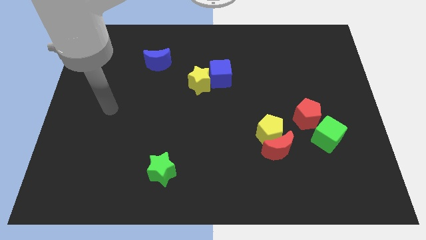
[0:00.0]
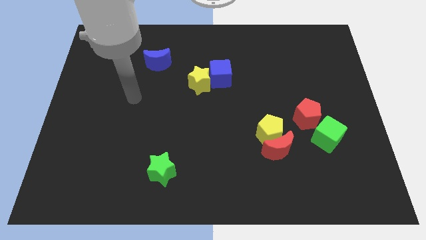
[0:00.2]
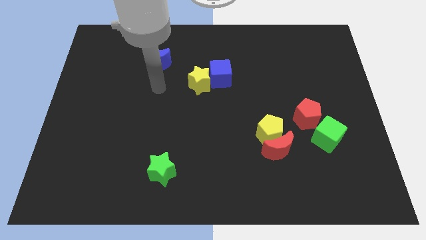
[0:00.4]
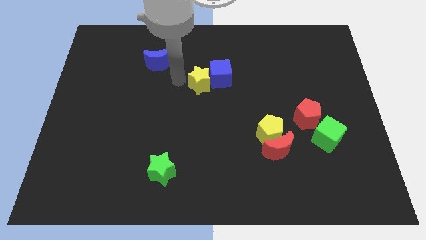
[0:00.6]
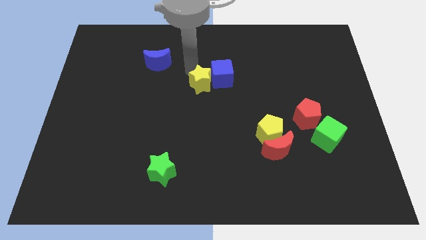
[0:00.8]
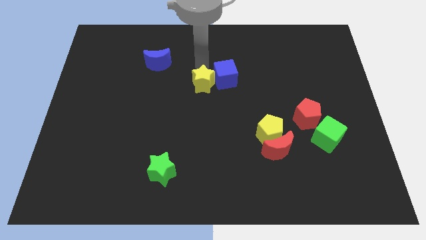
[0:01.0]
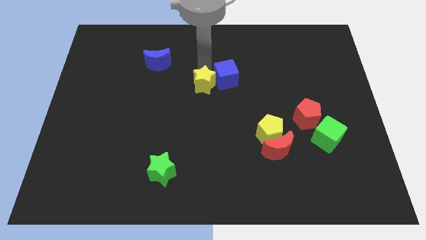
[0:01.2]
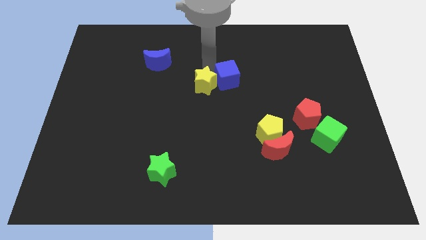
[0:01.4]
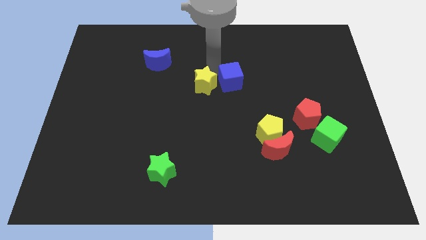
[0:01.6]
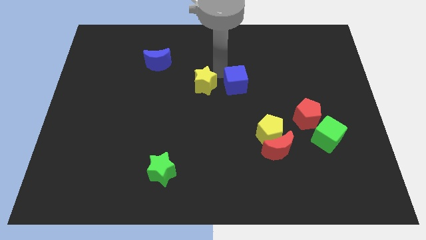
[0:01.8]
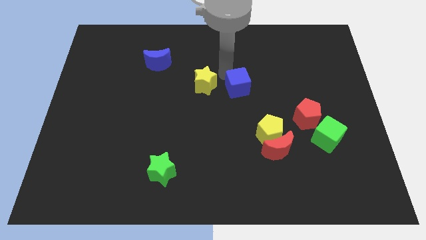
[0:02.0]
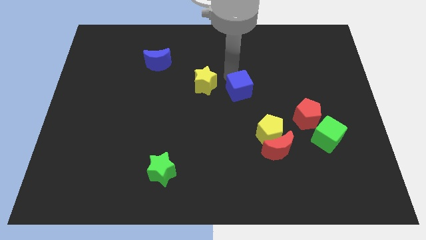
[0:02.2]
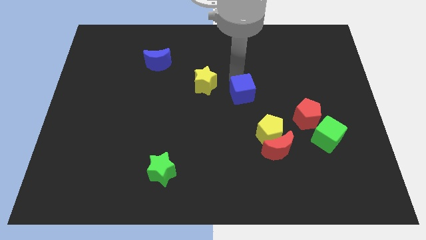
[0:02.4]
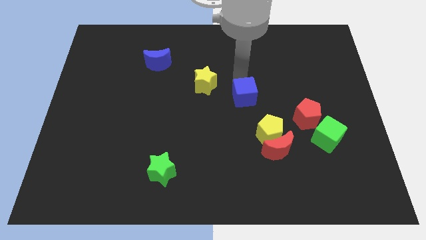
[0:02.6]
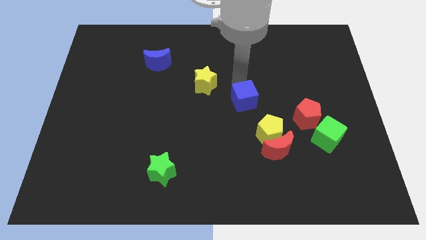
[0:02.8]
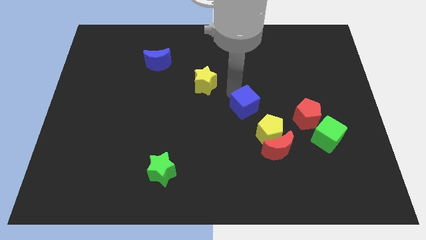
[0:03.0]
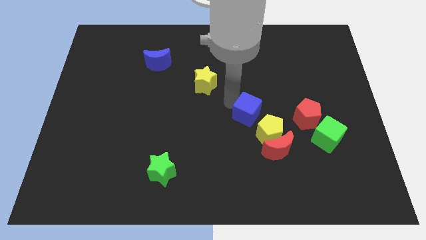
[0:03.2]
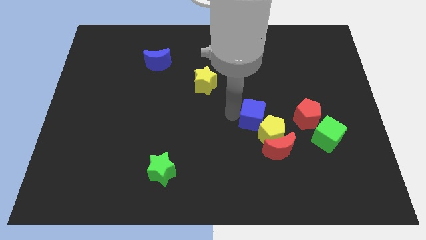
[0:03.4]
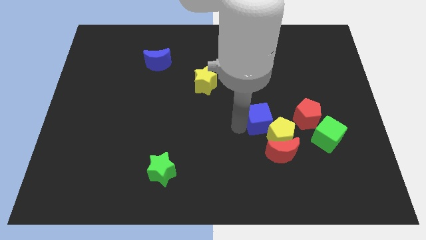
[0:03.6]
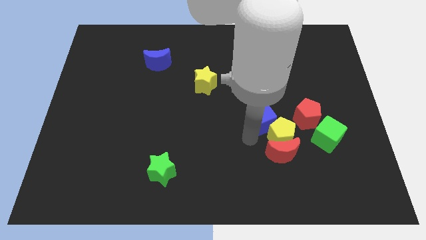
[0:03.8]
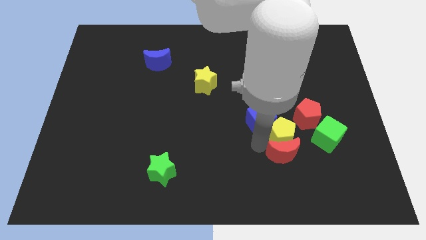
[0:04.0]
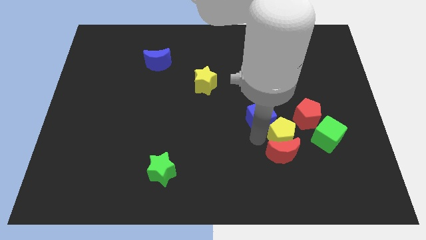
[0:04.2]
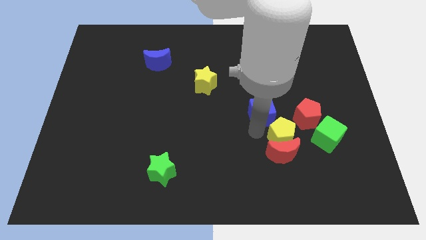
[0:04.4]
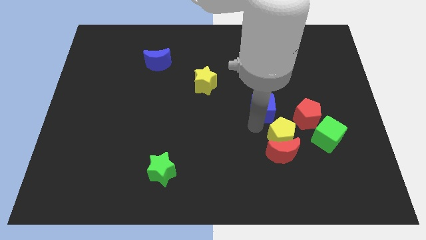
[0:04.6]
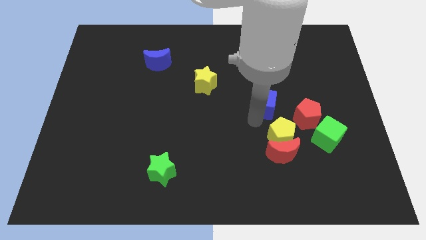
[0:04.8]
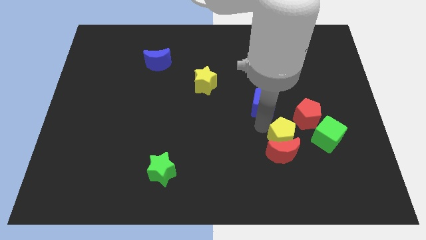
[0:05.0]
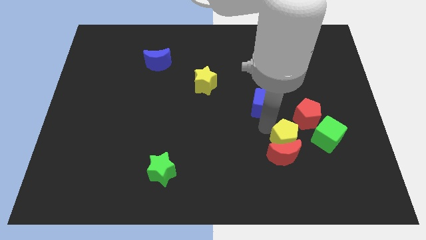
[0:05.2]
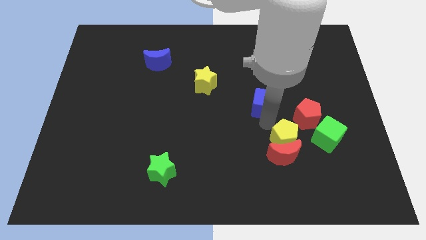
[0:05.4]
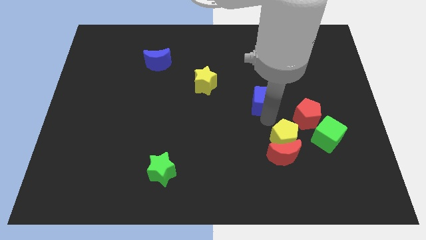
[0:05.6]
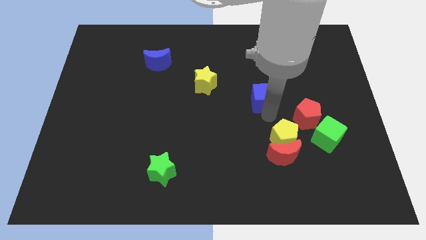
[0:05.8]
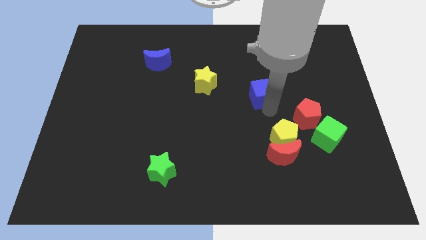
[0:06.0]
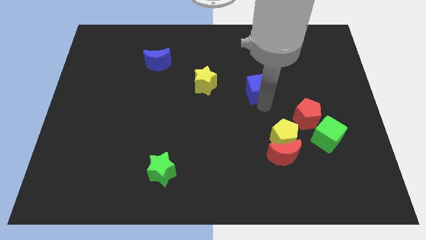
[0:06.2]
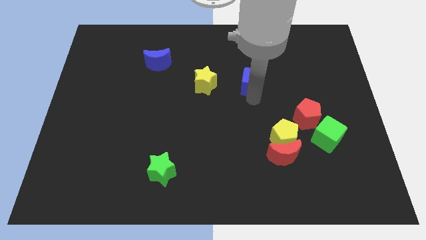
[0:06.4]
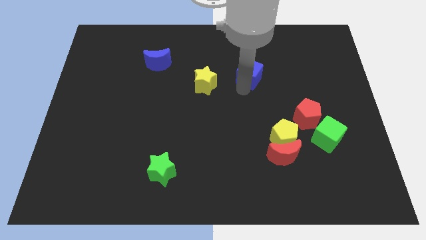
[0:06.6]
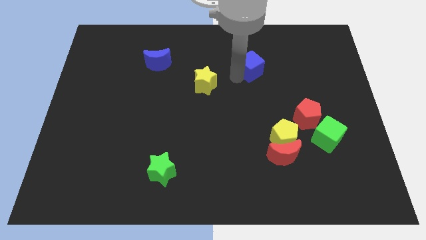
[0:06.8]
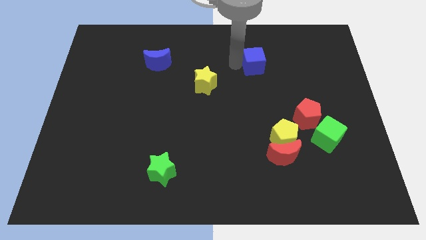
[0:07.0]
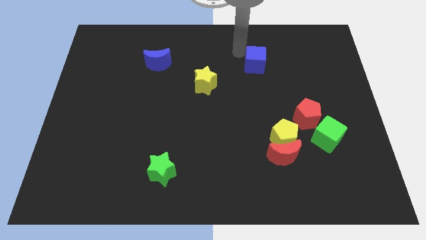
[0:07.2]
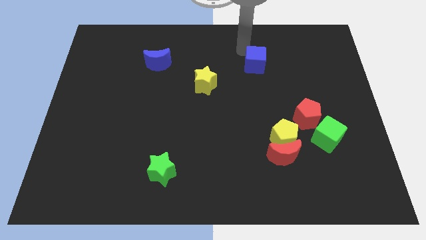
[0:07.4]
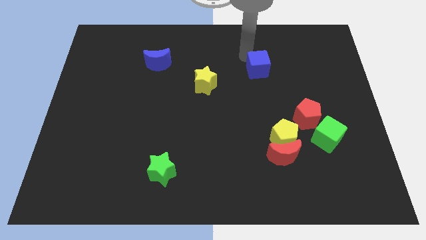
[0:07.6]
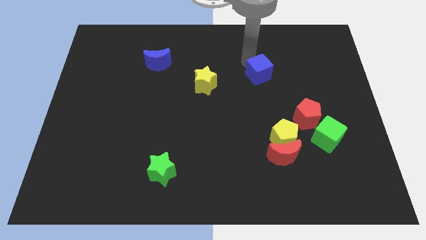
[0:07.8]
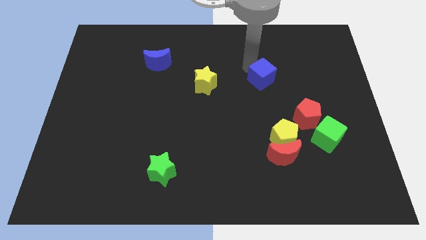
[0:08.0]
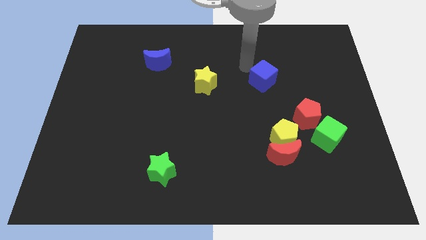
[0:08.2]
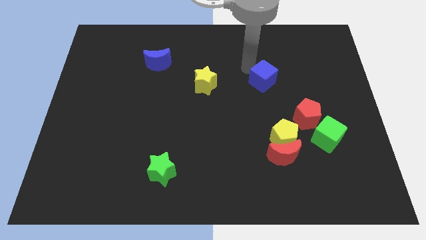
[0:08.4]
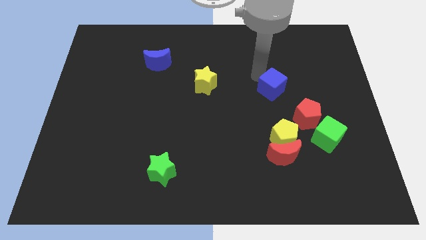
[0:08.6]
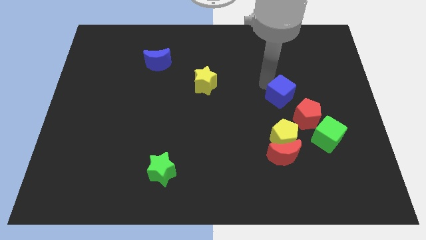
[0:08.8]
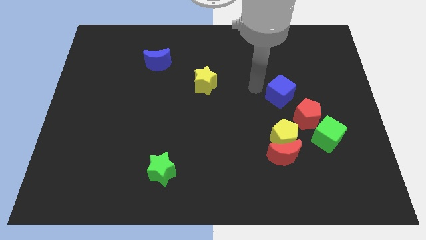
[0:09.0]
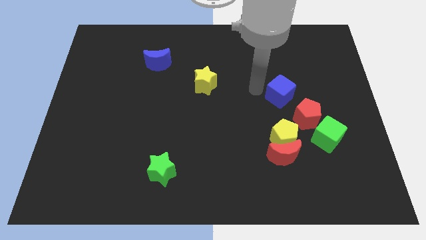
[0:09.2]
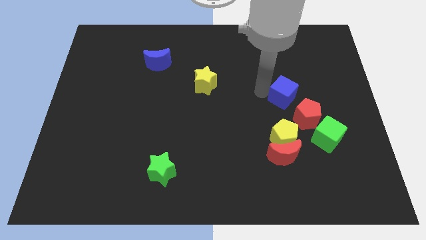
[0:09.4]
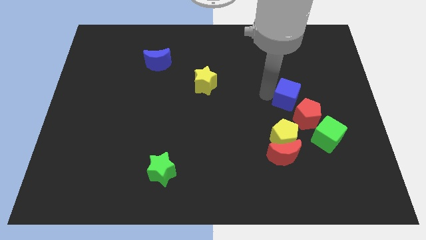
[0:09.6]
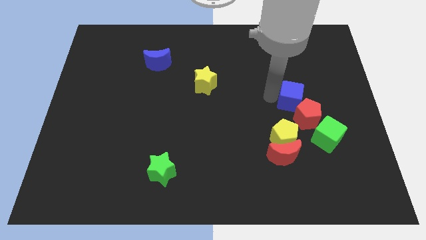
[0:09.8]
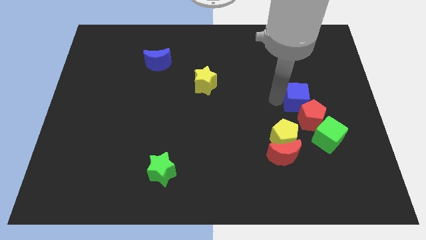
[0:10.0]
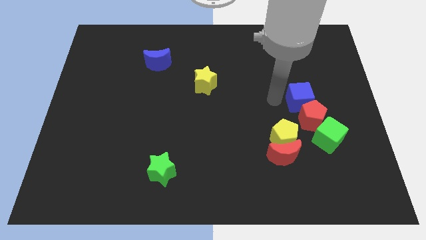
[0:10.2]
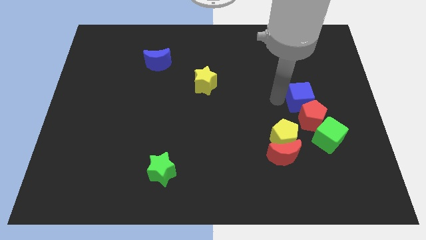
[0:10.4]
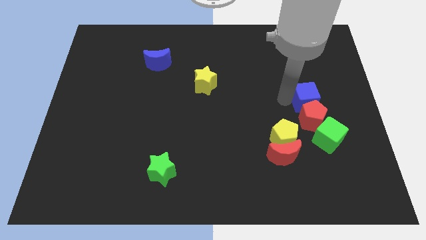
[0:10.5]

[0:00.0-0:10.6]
push the blue cube to the top right side of the red pentagon

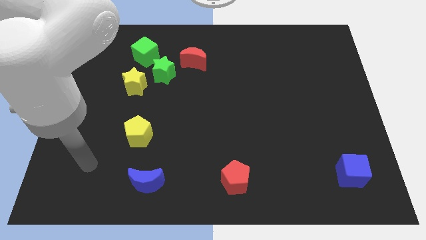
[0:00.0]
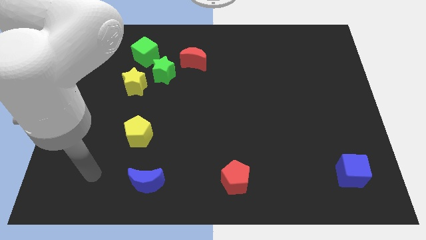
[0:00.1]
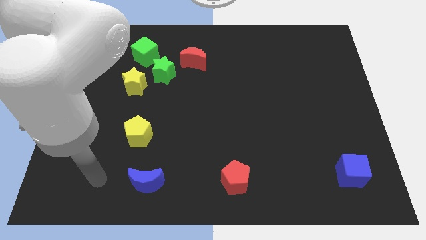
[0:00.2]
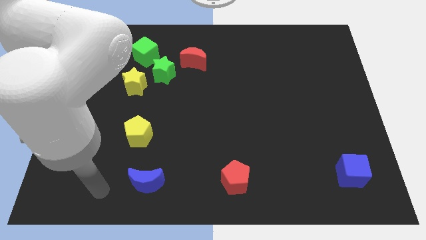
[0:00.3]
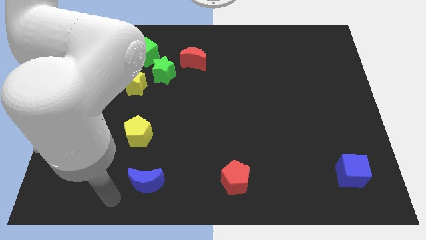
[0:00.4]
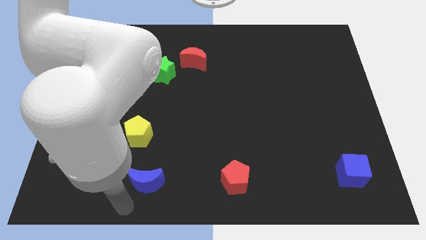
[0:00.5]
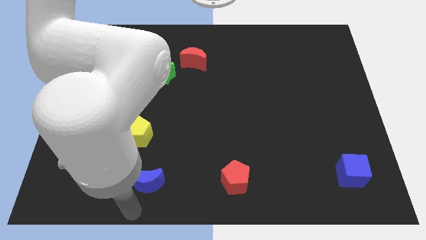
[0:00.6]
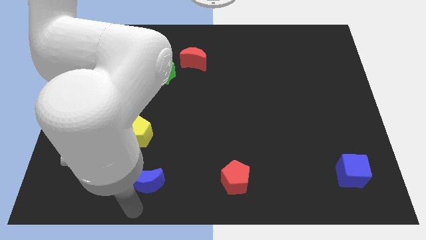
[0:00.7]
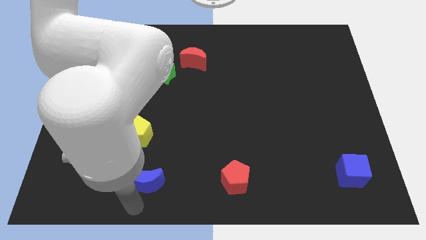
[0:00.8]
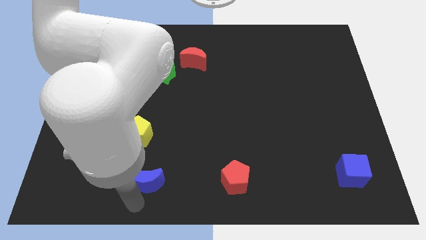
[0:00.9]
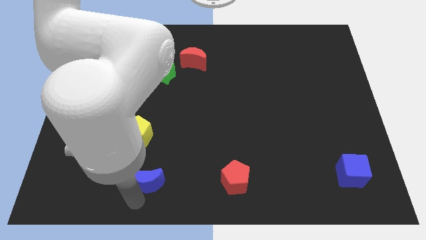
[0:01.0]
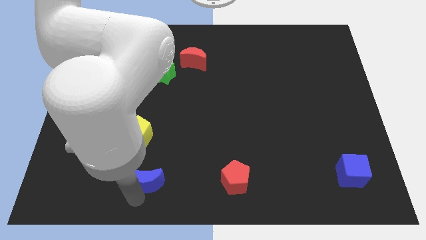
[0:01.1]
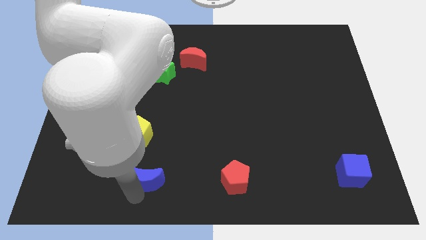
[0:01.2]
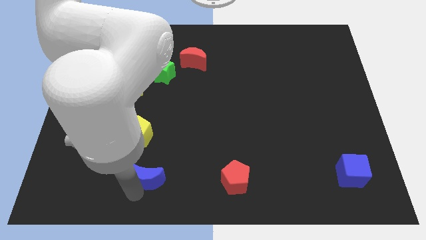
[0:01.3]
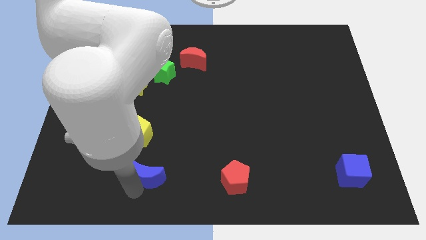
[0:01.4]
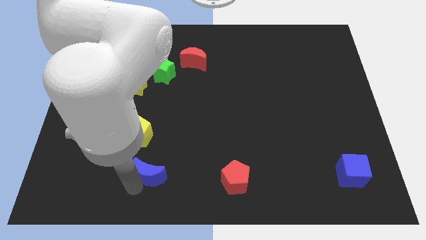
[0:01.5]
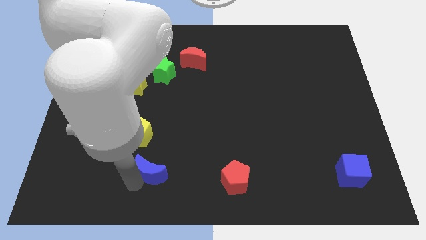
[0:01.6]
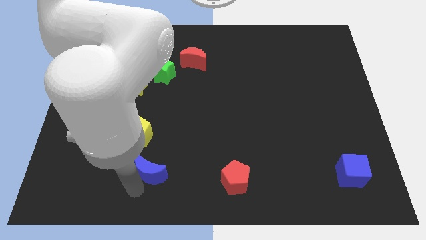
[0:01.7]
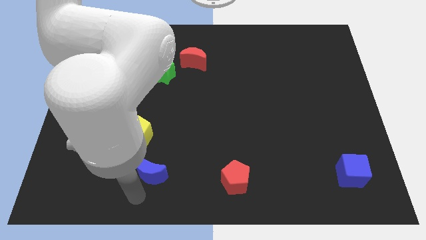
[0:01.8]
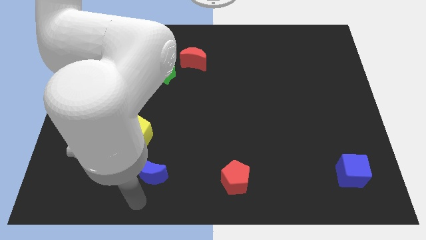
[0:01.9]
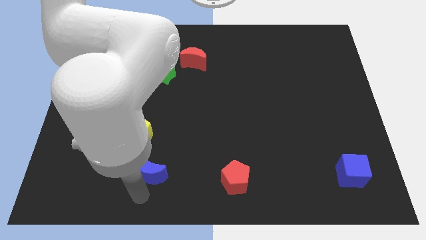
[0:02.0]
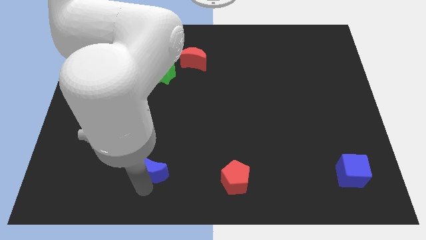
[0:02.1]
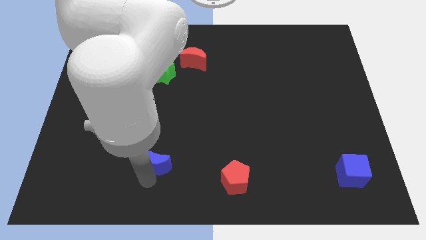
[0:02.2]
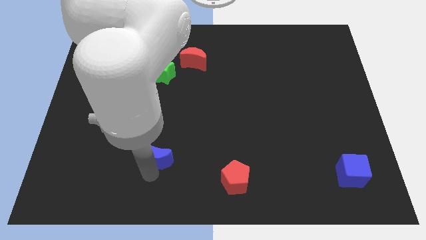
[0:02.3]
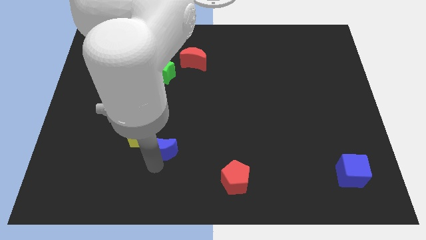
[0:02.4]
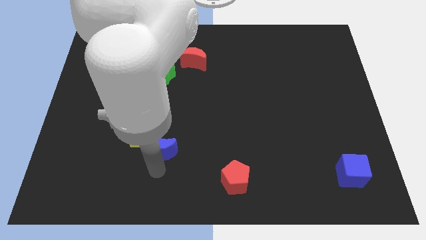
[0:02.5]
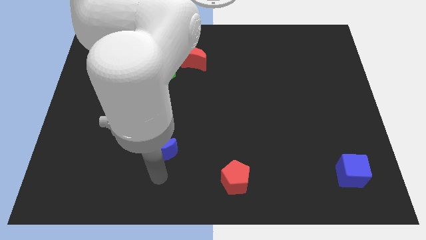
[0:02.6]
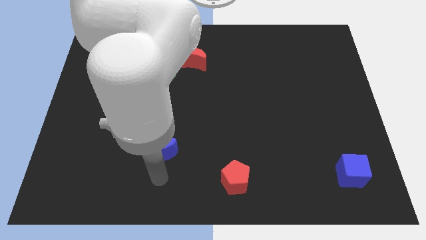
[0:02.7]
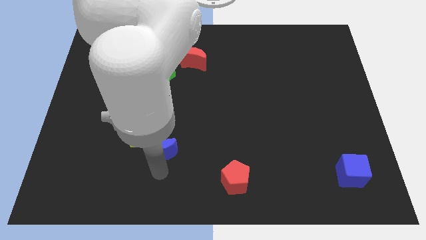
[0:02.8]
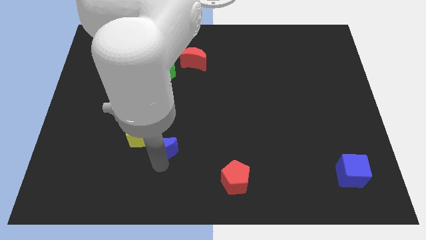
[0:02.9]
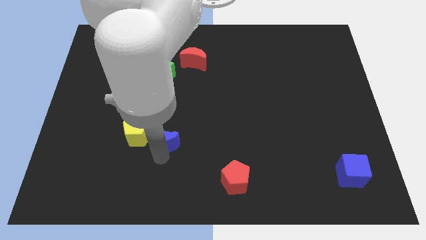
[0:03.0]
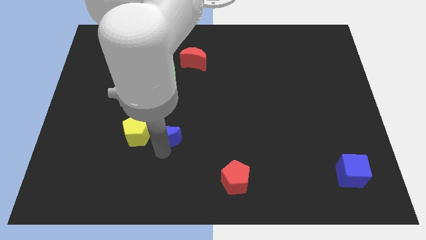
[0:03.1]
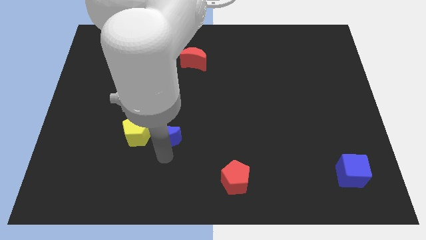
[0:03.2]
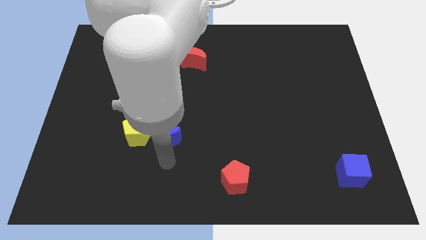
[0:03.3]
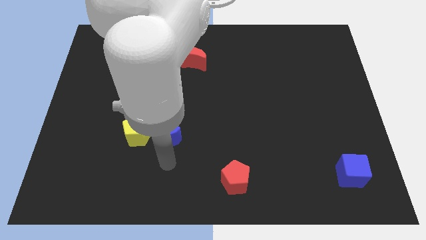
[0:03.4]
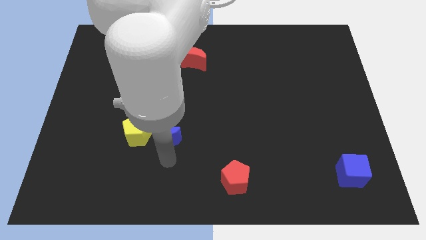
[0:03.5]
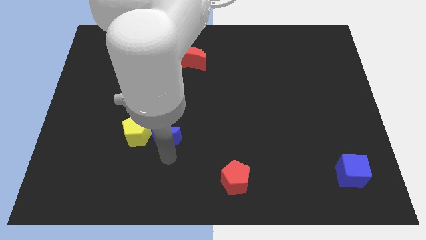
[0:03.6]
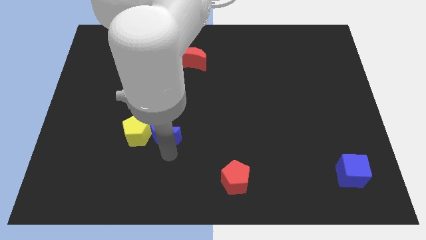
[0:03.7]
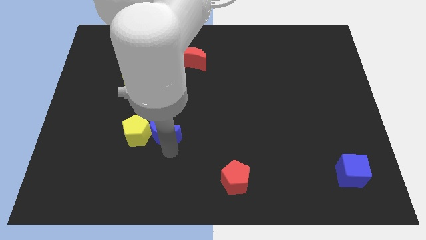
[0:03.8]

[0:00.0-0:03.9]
move the blue moon to the top right side of the yellow pentagon
